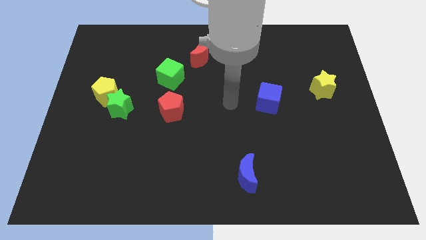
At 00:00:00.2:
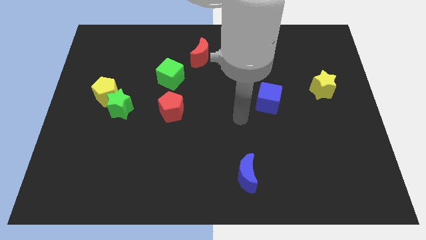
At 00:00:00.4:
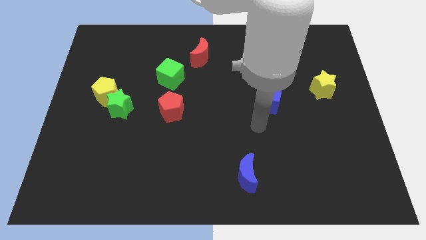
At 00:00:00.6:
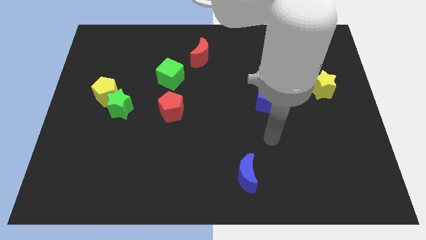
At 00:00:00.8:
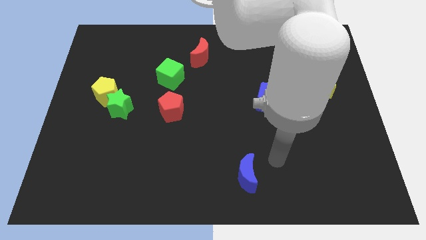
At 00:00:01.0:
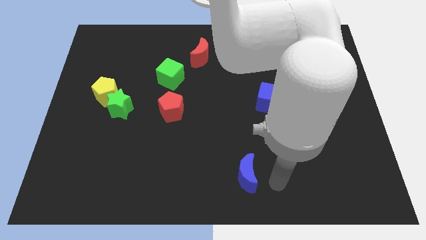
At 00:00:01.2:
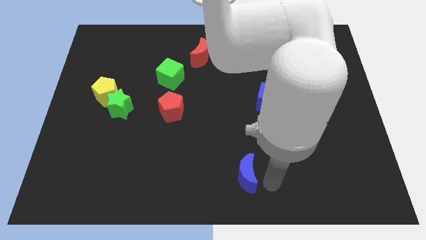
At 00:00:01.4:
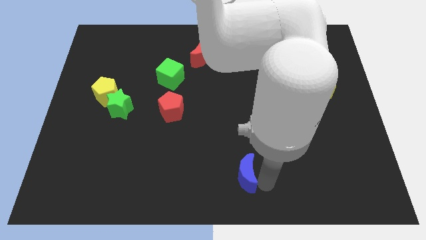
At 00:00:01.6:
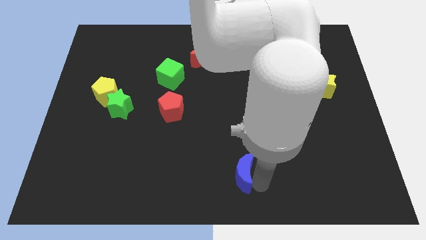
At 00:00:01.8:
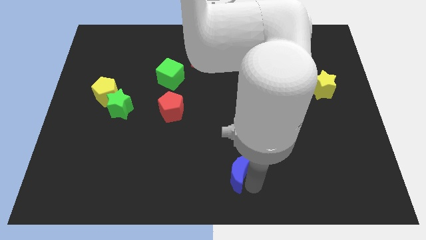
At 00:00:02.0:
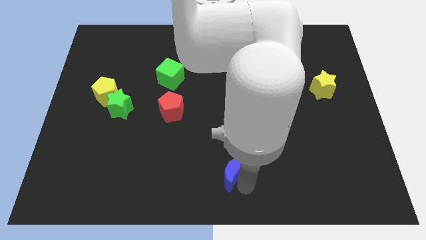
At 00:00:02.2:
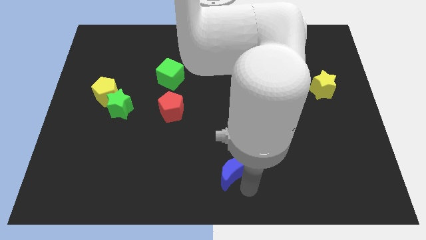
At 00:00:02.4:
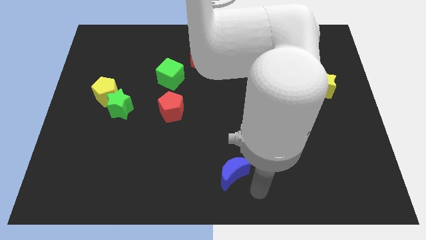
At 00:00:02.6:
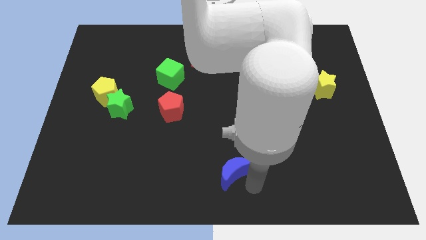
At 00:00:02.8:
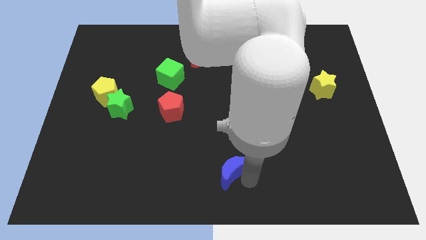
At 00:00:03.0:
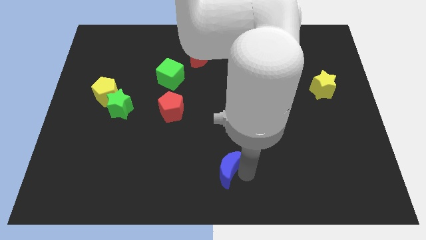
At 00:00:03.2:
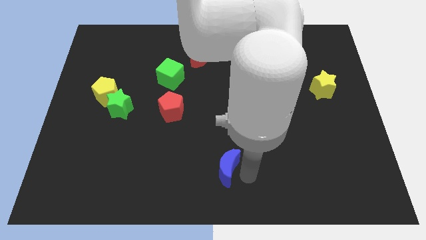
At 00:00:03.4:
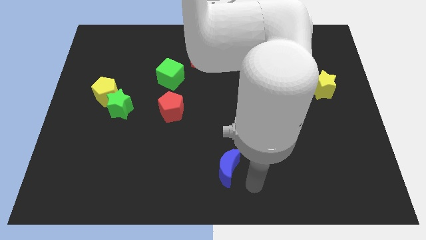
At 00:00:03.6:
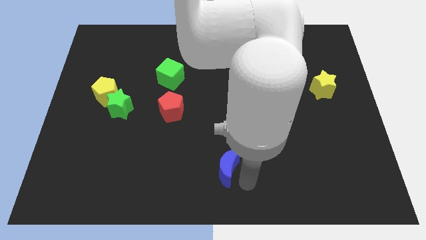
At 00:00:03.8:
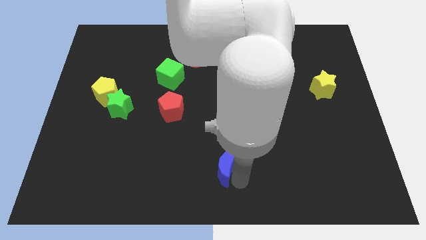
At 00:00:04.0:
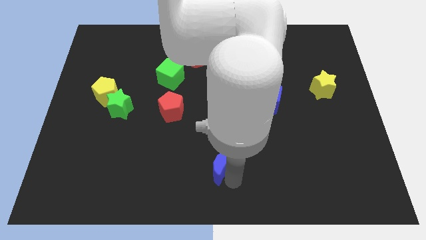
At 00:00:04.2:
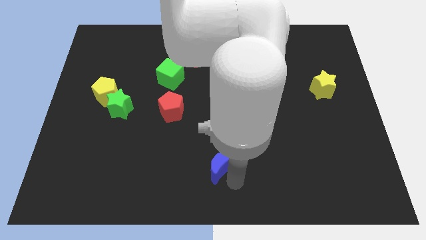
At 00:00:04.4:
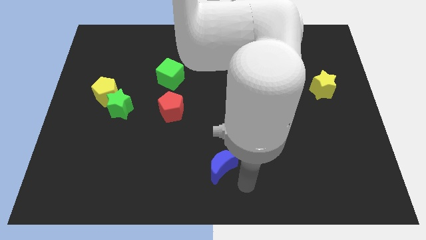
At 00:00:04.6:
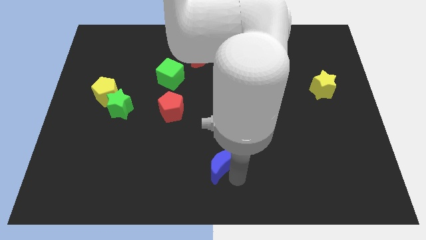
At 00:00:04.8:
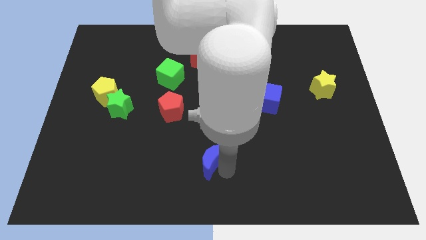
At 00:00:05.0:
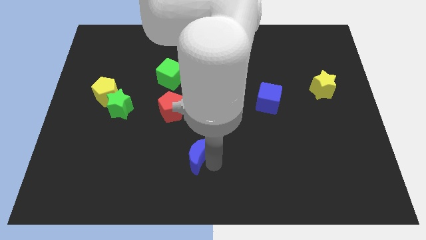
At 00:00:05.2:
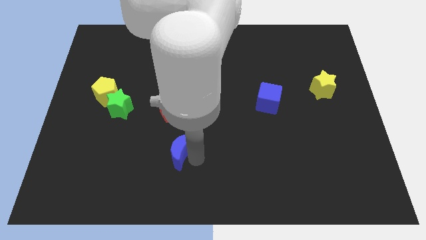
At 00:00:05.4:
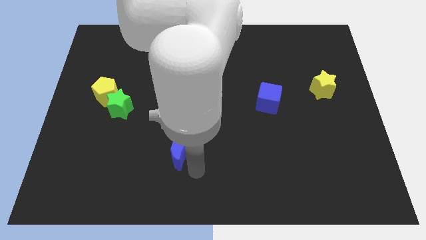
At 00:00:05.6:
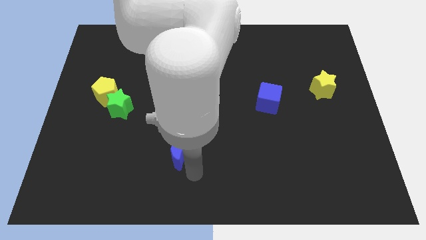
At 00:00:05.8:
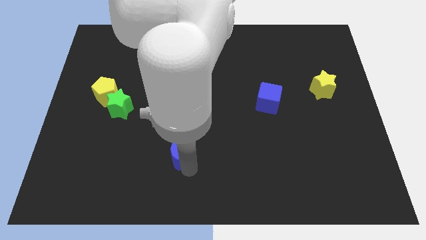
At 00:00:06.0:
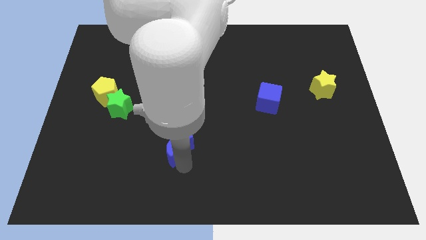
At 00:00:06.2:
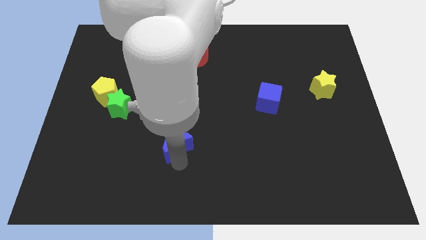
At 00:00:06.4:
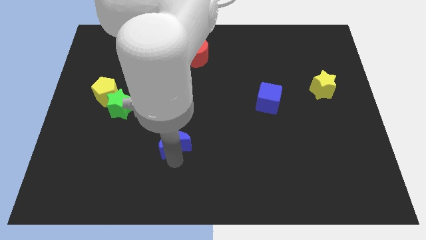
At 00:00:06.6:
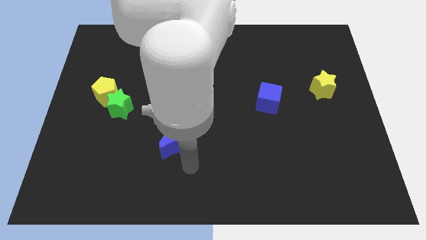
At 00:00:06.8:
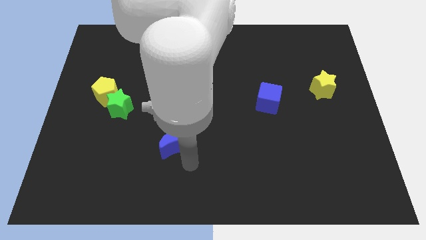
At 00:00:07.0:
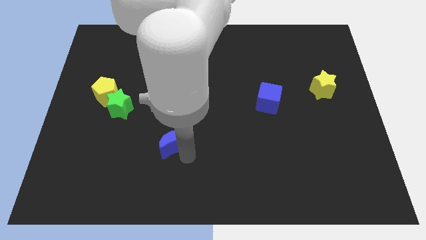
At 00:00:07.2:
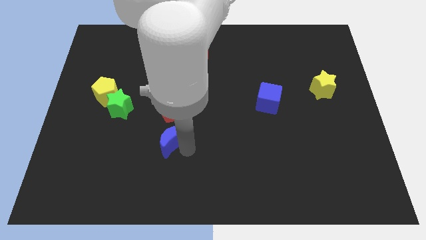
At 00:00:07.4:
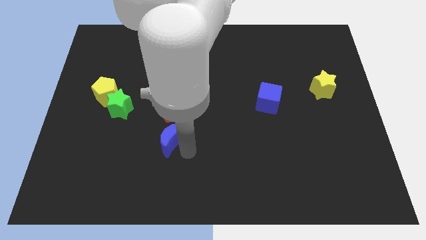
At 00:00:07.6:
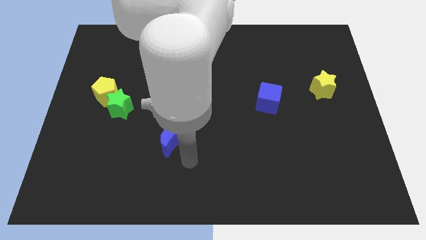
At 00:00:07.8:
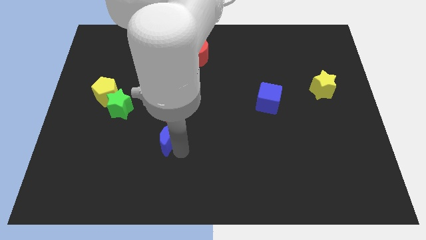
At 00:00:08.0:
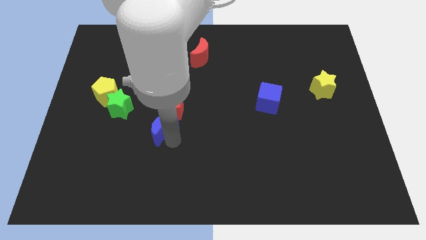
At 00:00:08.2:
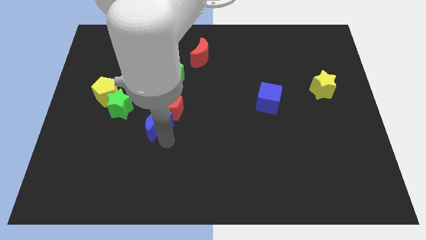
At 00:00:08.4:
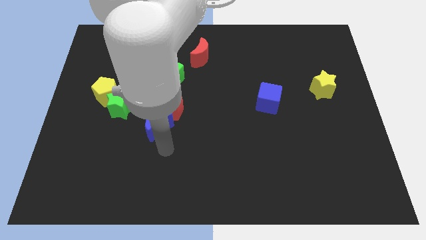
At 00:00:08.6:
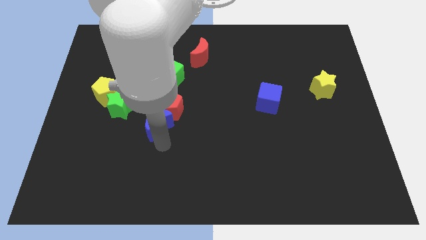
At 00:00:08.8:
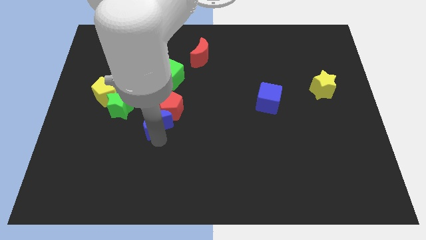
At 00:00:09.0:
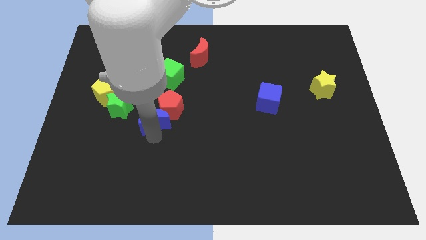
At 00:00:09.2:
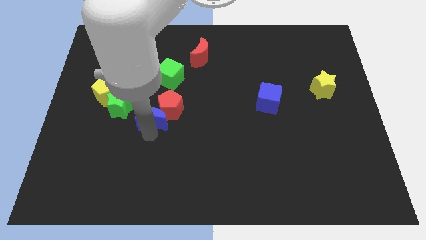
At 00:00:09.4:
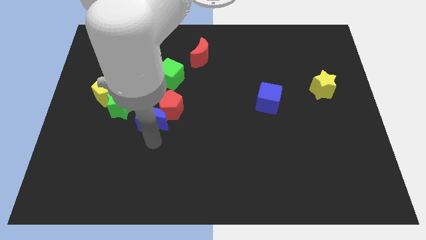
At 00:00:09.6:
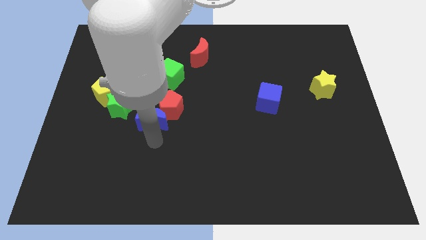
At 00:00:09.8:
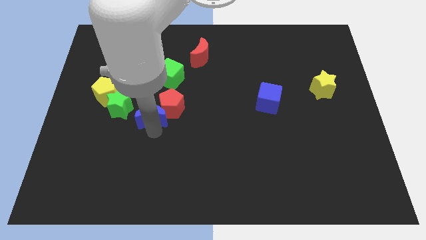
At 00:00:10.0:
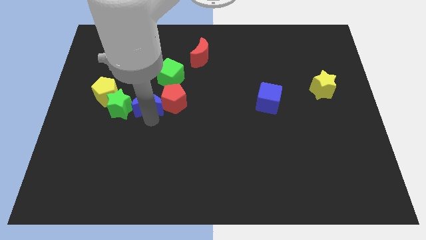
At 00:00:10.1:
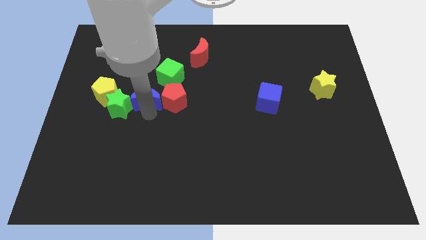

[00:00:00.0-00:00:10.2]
slide the blue moon to the top left of the red pentagon

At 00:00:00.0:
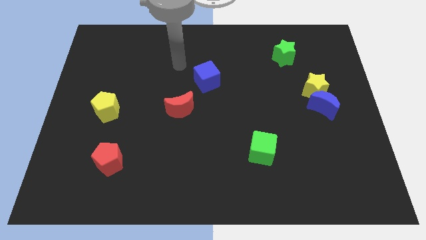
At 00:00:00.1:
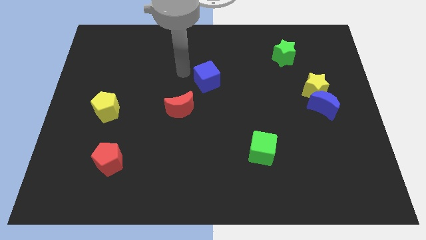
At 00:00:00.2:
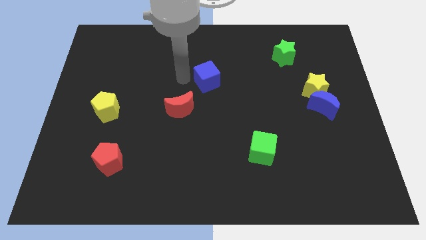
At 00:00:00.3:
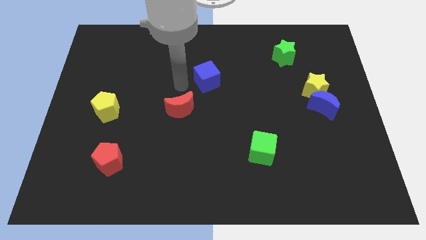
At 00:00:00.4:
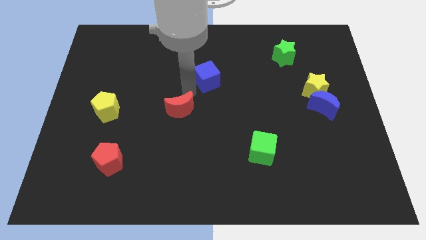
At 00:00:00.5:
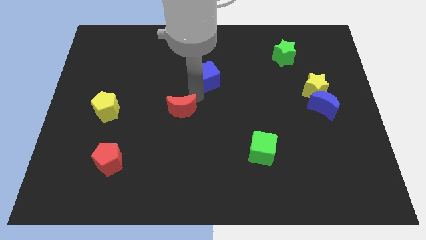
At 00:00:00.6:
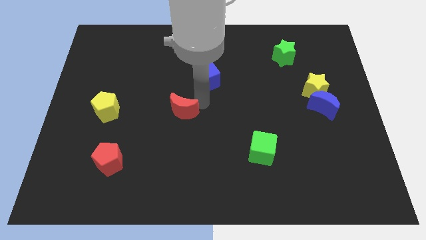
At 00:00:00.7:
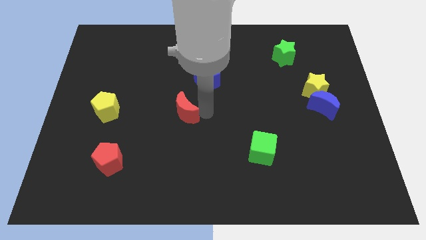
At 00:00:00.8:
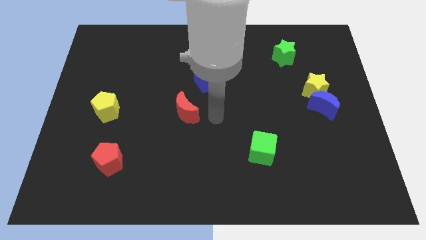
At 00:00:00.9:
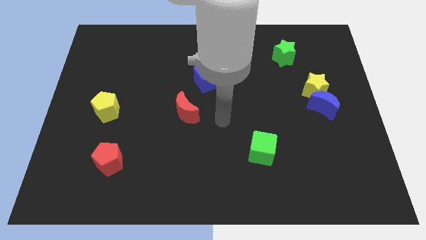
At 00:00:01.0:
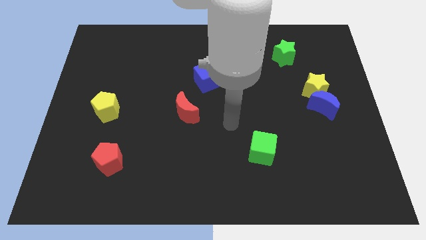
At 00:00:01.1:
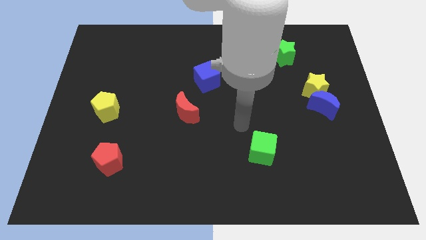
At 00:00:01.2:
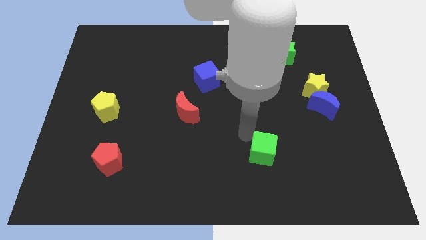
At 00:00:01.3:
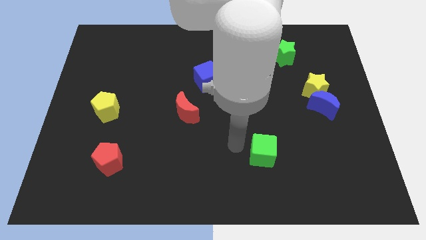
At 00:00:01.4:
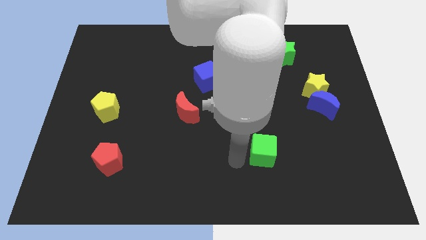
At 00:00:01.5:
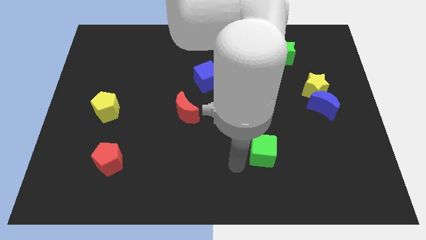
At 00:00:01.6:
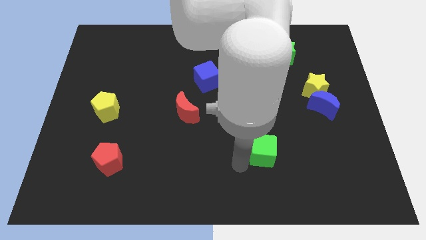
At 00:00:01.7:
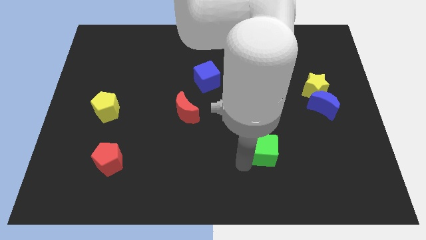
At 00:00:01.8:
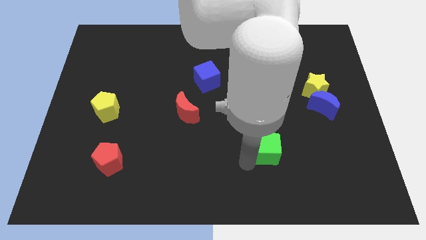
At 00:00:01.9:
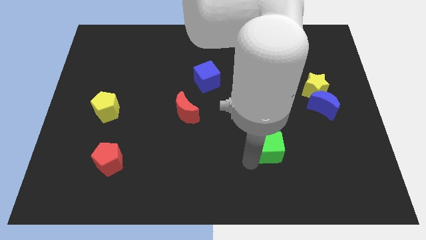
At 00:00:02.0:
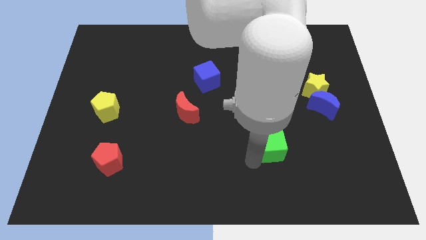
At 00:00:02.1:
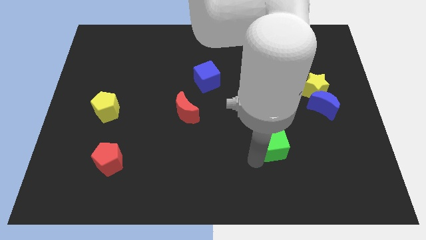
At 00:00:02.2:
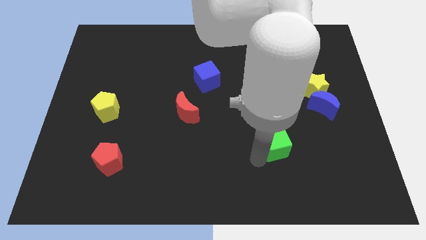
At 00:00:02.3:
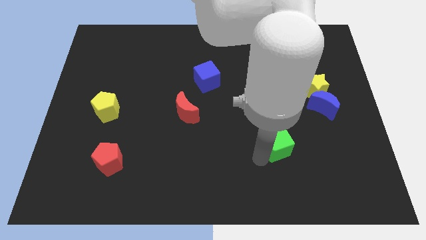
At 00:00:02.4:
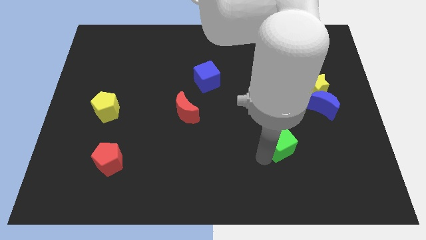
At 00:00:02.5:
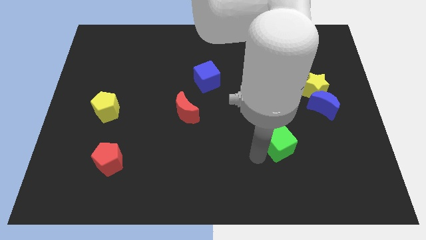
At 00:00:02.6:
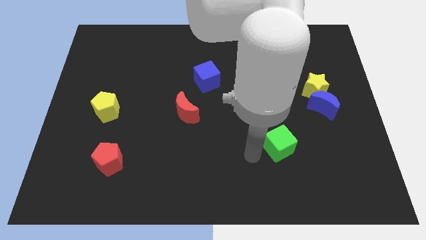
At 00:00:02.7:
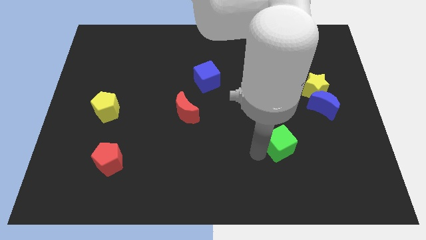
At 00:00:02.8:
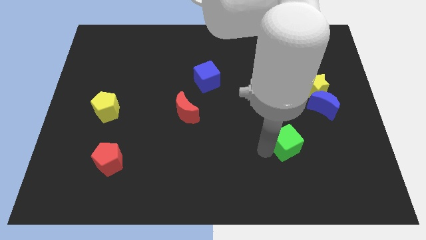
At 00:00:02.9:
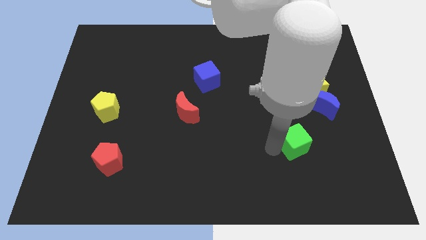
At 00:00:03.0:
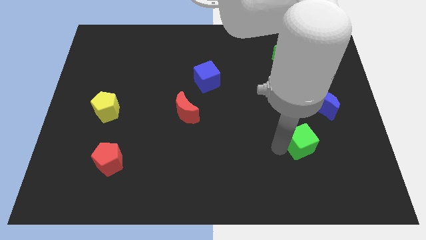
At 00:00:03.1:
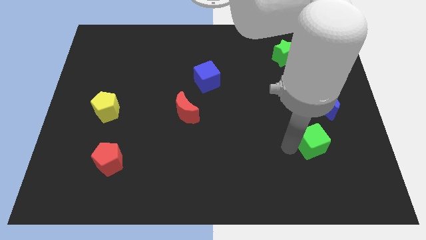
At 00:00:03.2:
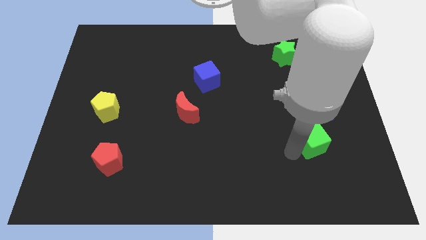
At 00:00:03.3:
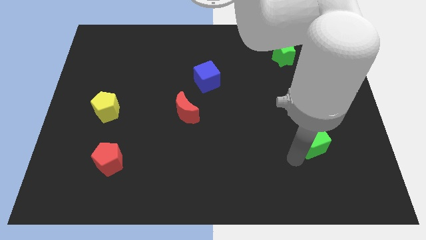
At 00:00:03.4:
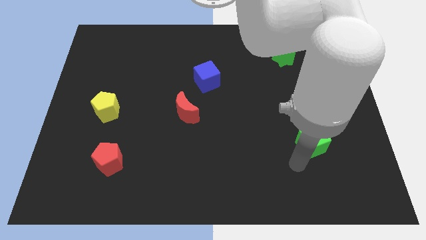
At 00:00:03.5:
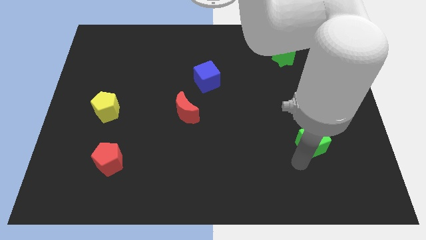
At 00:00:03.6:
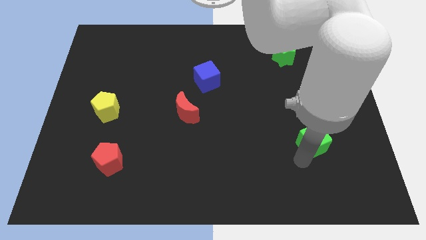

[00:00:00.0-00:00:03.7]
push the green cube to the bottom side of the yellow star
